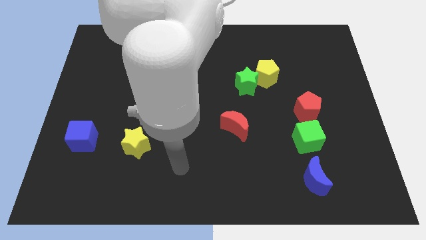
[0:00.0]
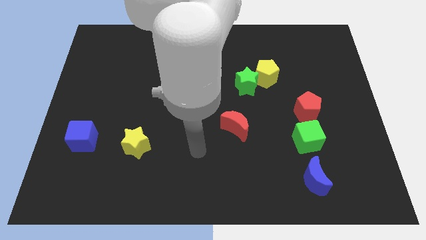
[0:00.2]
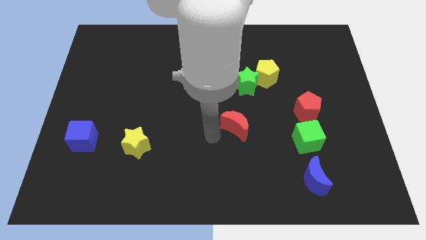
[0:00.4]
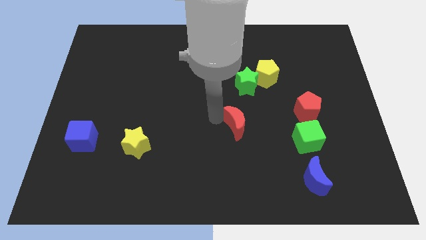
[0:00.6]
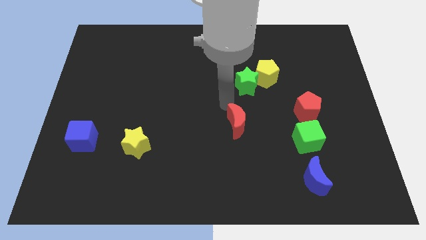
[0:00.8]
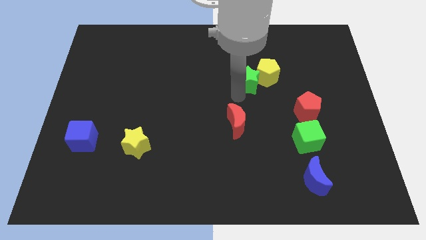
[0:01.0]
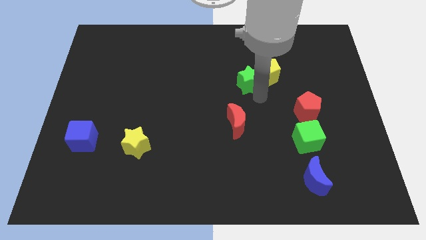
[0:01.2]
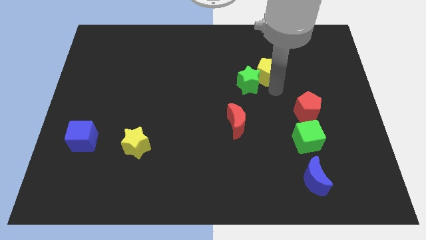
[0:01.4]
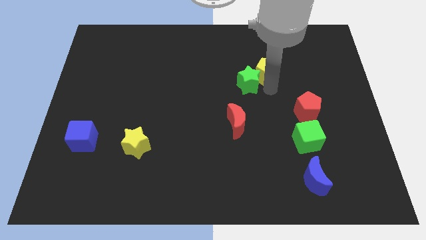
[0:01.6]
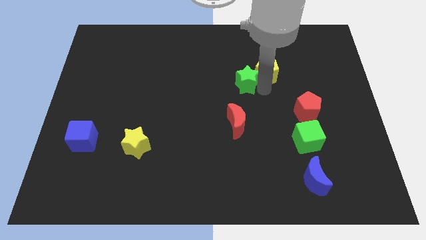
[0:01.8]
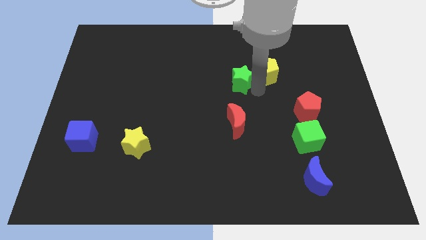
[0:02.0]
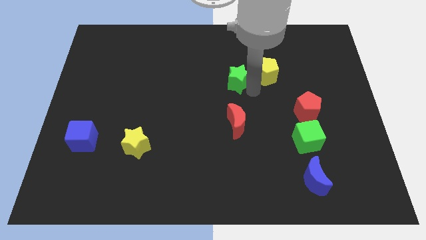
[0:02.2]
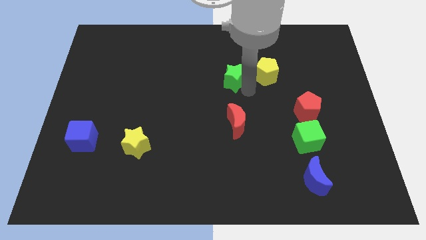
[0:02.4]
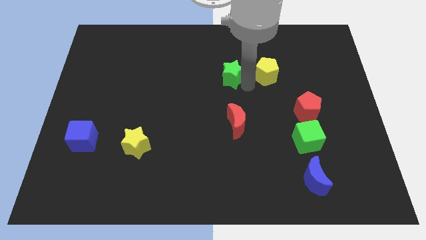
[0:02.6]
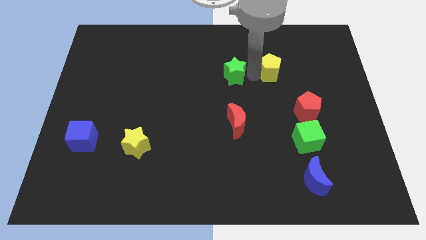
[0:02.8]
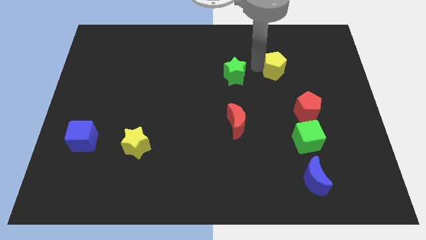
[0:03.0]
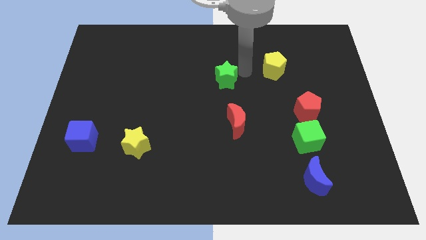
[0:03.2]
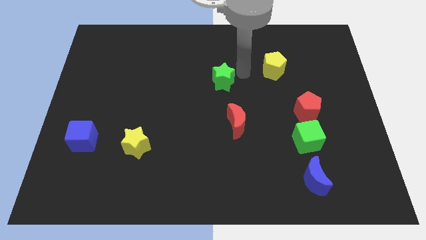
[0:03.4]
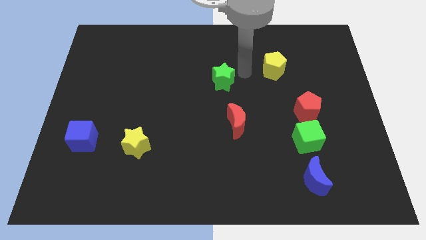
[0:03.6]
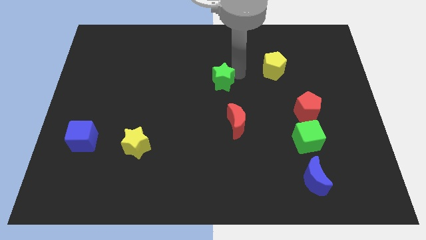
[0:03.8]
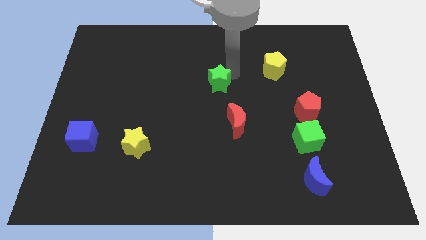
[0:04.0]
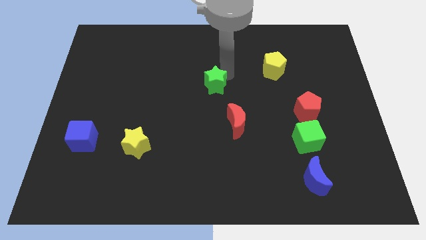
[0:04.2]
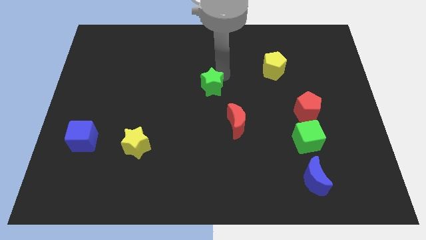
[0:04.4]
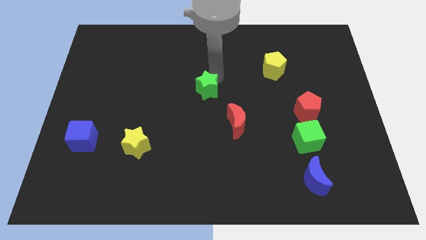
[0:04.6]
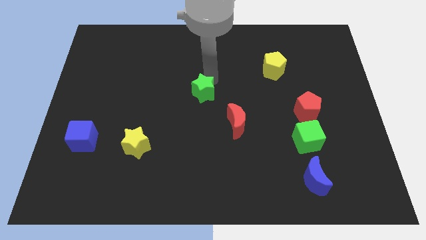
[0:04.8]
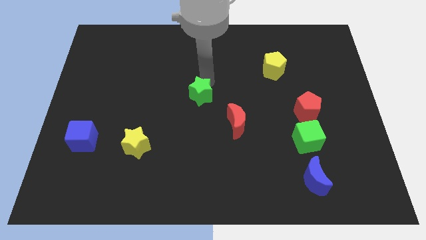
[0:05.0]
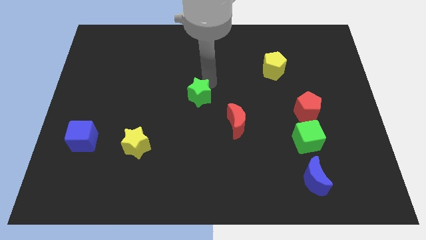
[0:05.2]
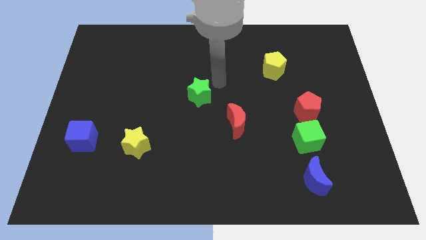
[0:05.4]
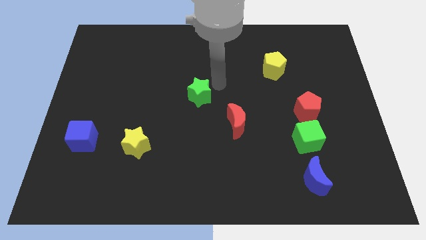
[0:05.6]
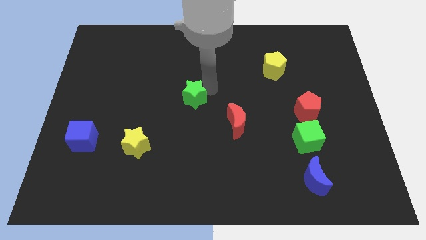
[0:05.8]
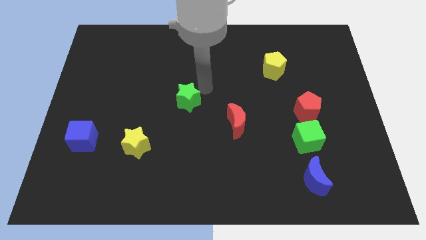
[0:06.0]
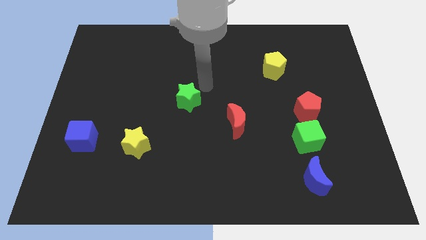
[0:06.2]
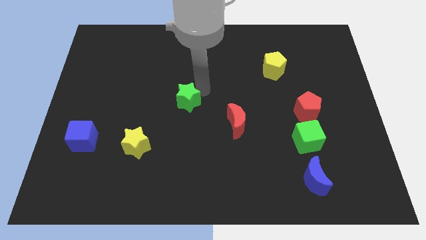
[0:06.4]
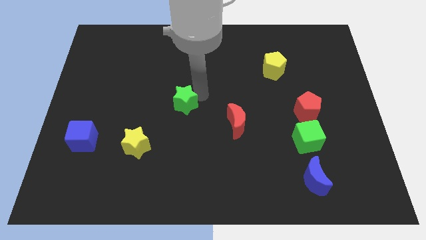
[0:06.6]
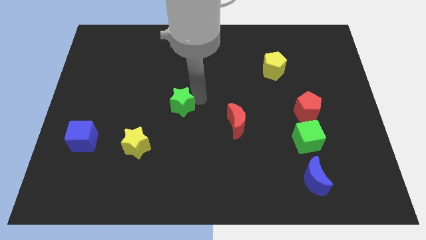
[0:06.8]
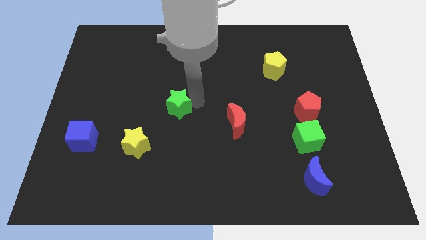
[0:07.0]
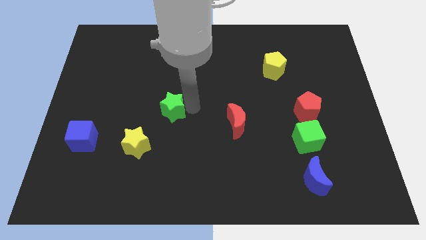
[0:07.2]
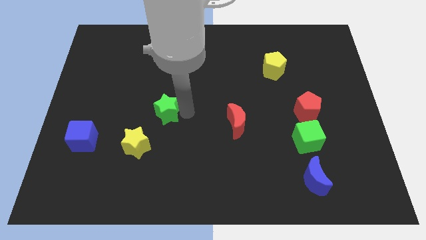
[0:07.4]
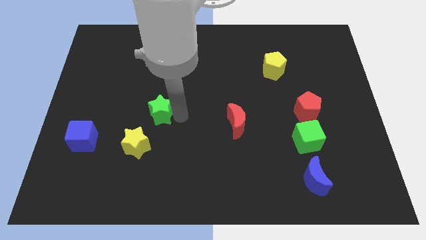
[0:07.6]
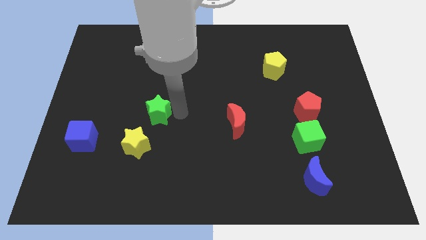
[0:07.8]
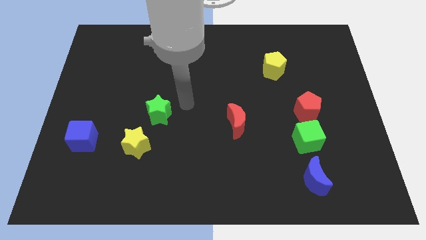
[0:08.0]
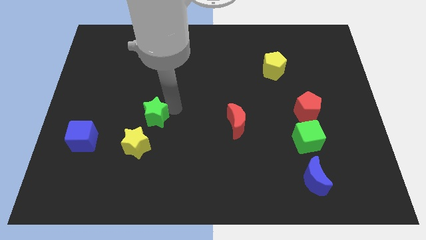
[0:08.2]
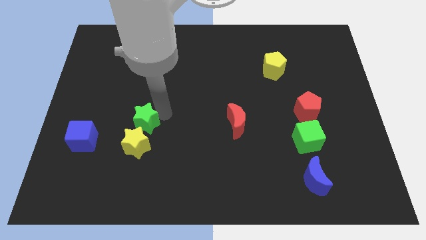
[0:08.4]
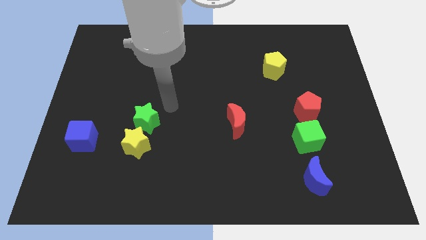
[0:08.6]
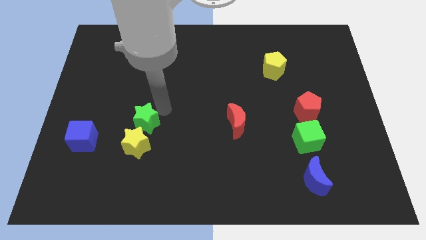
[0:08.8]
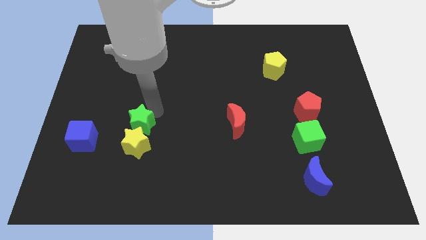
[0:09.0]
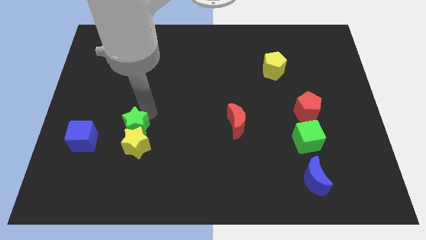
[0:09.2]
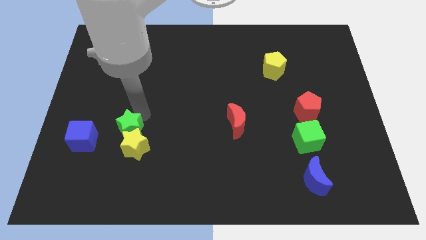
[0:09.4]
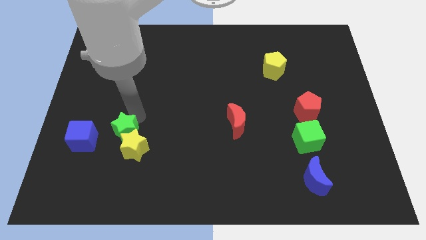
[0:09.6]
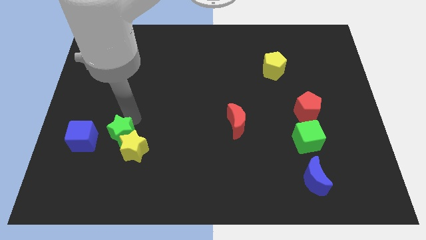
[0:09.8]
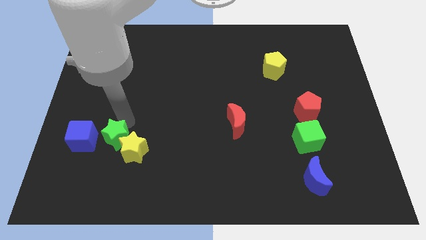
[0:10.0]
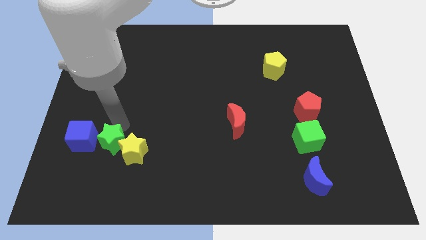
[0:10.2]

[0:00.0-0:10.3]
put the green star to the bottom right of the blue cube

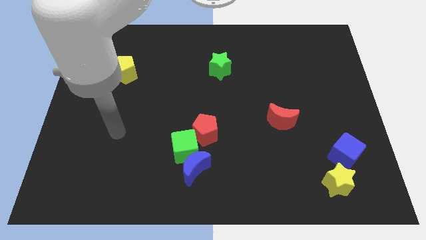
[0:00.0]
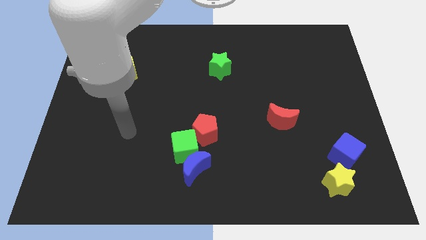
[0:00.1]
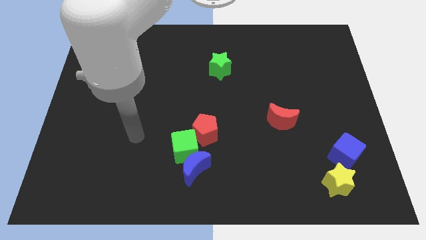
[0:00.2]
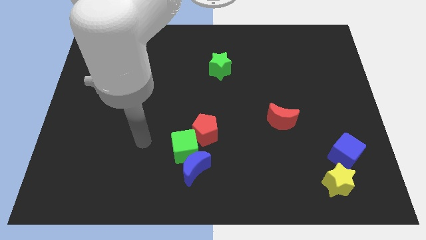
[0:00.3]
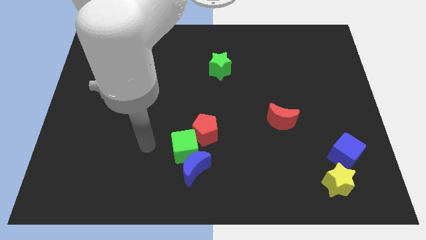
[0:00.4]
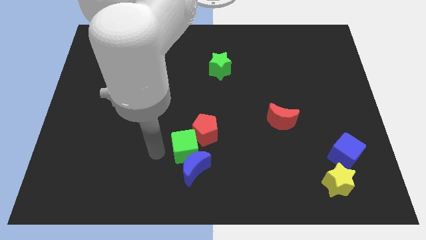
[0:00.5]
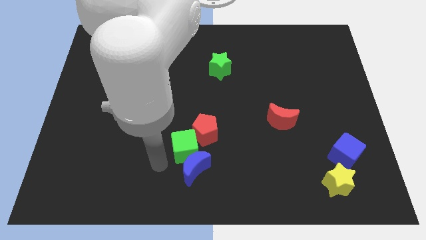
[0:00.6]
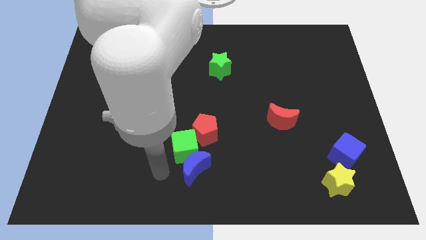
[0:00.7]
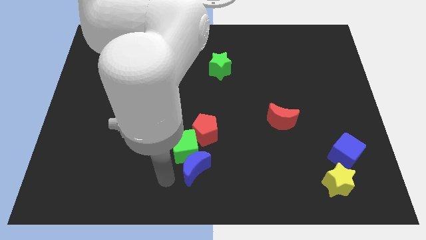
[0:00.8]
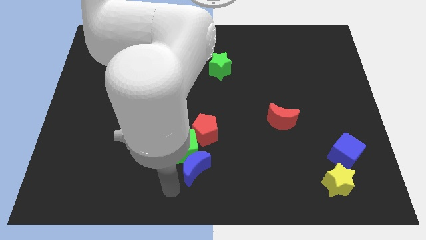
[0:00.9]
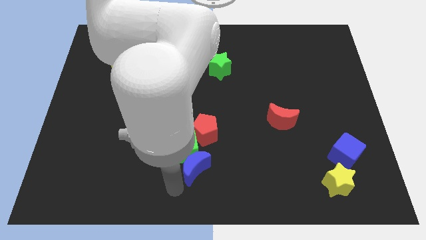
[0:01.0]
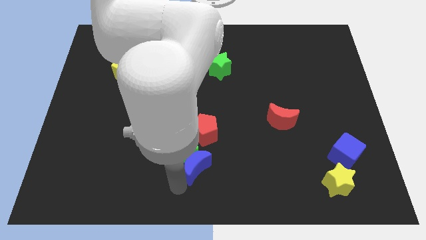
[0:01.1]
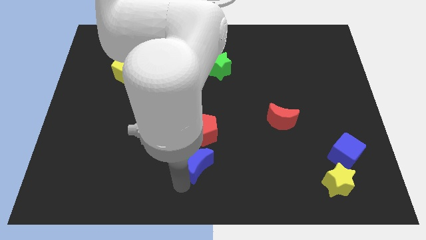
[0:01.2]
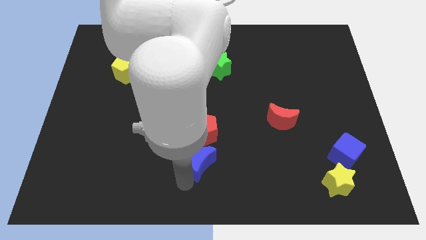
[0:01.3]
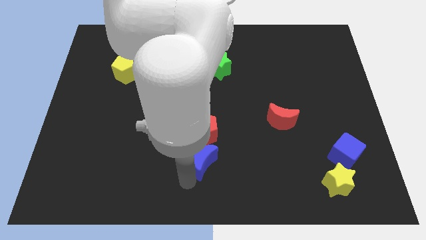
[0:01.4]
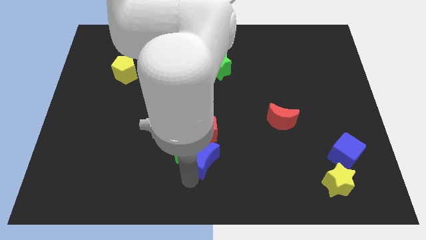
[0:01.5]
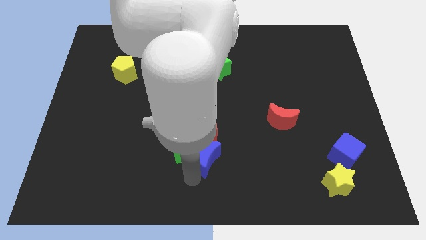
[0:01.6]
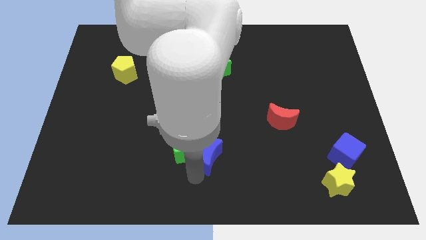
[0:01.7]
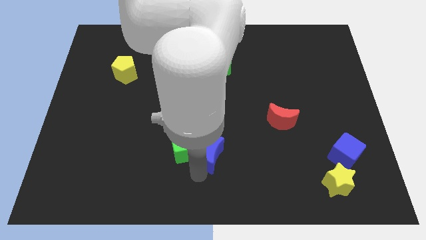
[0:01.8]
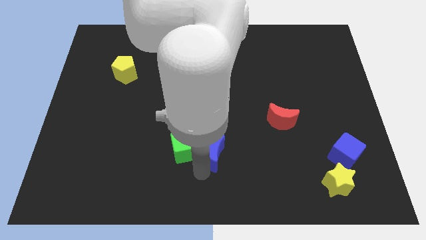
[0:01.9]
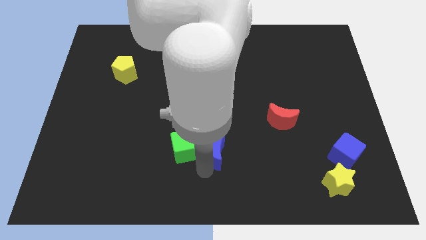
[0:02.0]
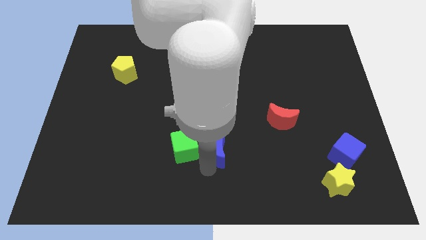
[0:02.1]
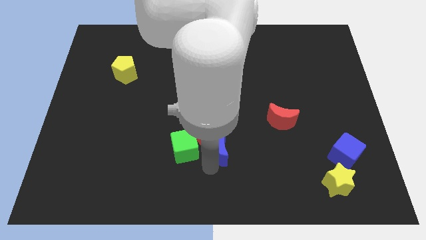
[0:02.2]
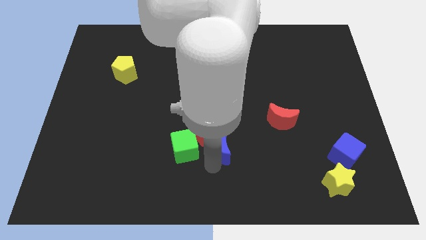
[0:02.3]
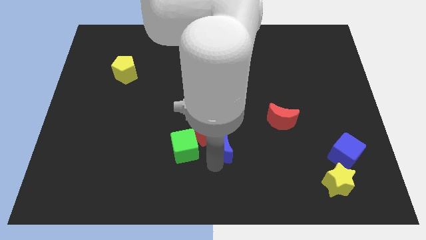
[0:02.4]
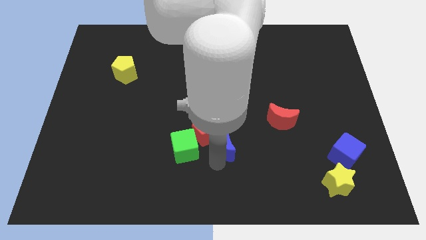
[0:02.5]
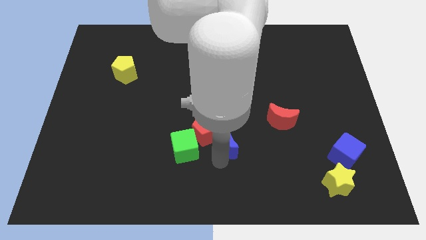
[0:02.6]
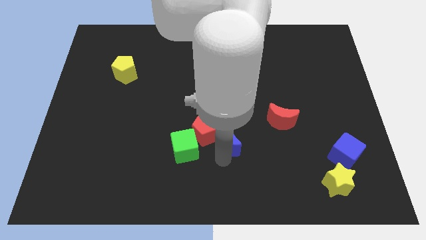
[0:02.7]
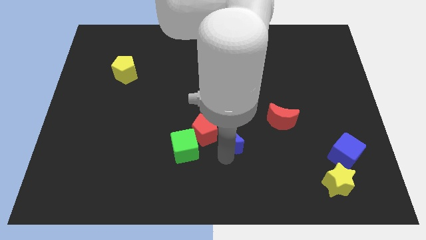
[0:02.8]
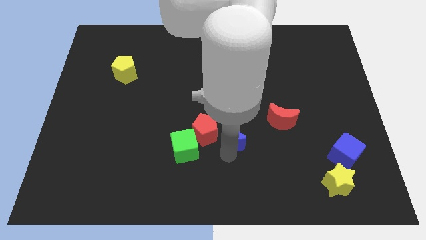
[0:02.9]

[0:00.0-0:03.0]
put the blue moon just left of the red moon
